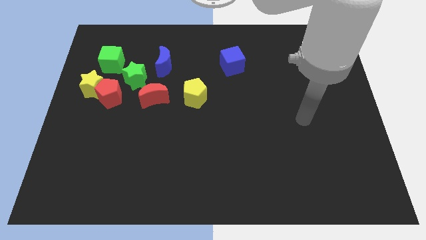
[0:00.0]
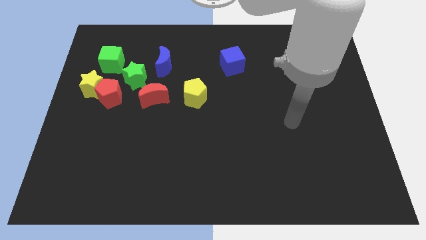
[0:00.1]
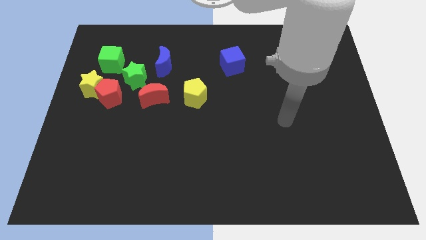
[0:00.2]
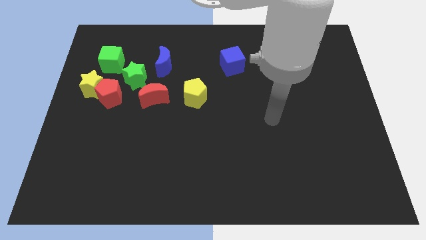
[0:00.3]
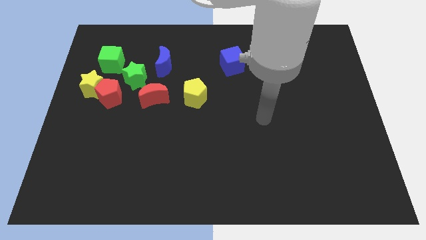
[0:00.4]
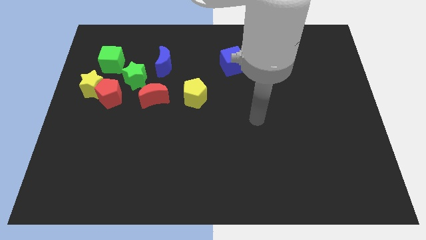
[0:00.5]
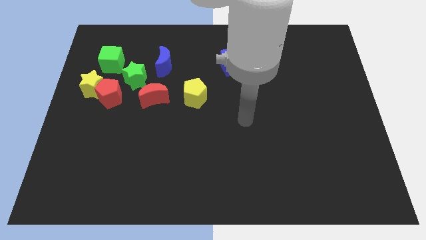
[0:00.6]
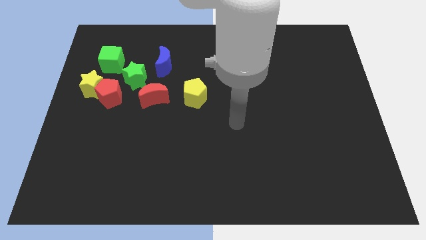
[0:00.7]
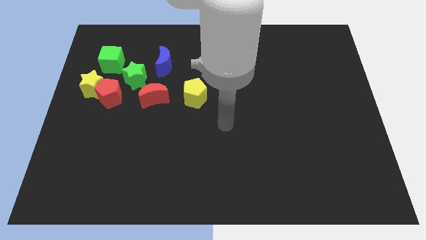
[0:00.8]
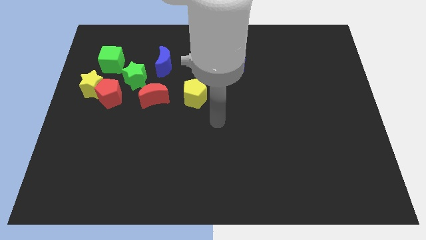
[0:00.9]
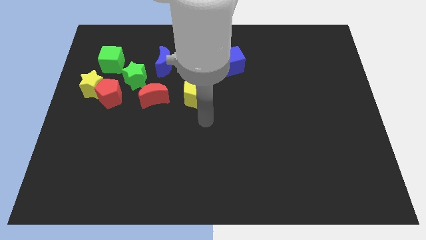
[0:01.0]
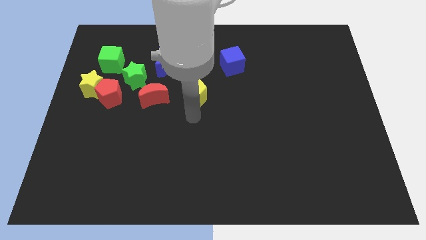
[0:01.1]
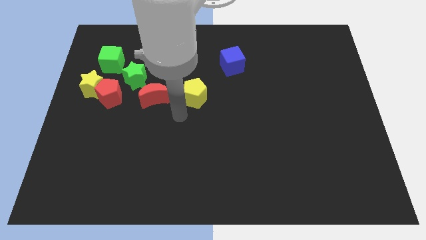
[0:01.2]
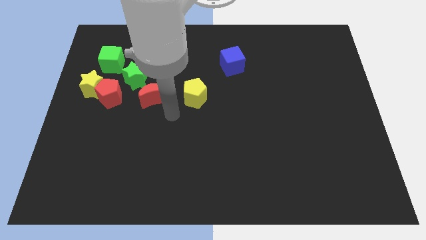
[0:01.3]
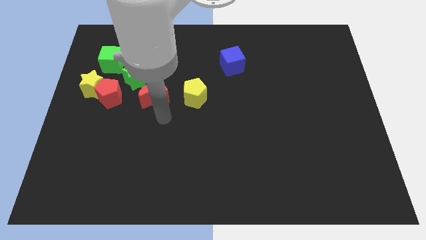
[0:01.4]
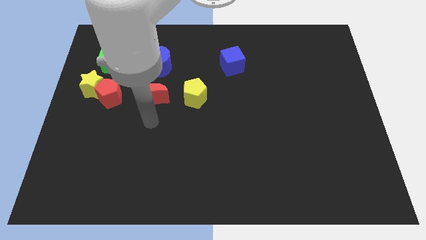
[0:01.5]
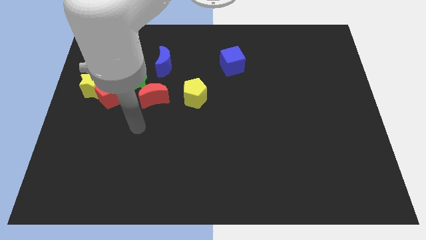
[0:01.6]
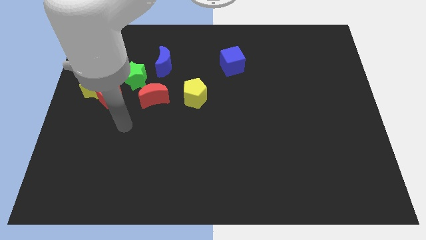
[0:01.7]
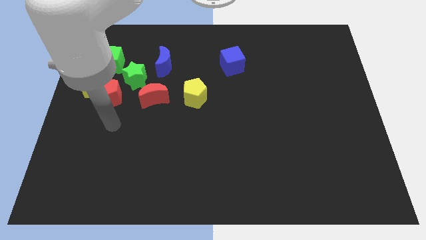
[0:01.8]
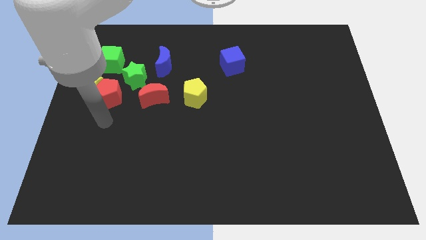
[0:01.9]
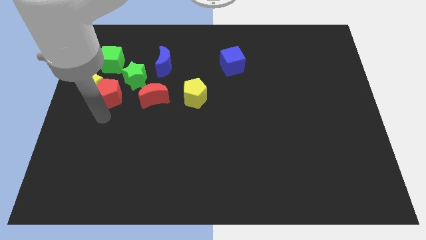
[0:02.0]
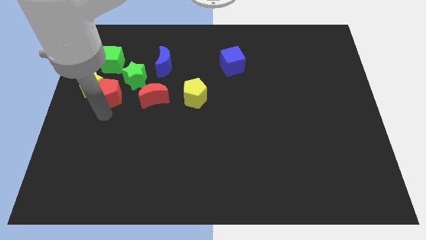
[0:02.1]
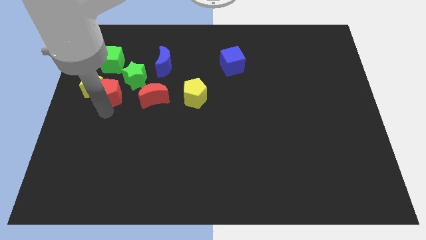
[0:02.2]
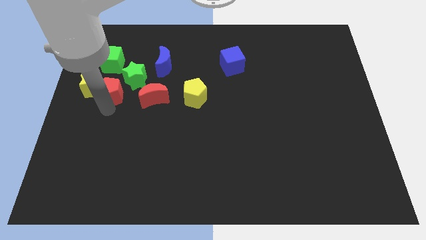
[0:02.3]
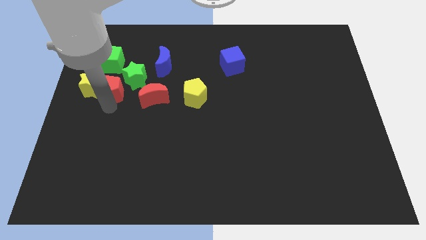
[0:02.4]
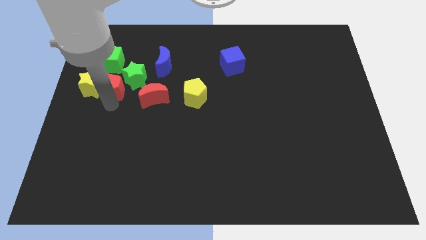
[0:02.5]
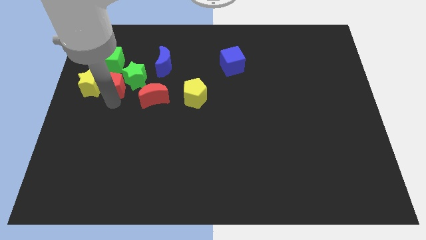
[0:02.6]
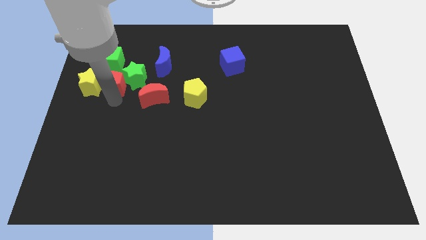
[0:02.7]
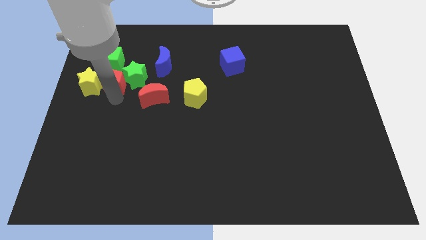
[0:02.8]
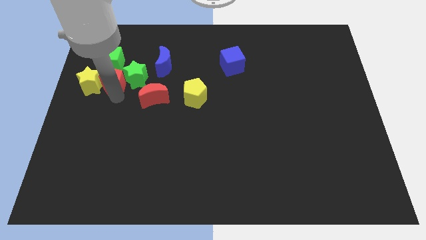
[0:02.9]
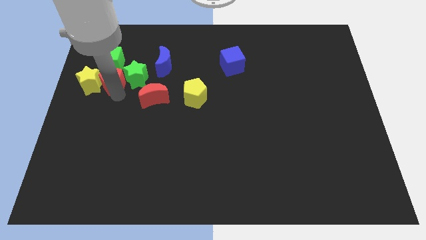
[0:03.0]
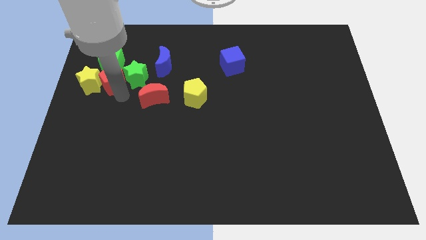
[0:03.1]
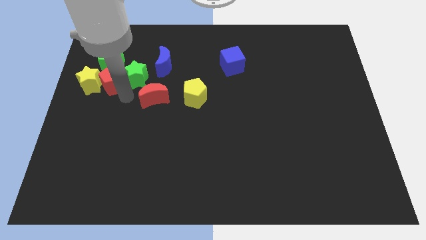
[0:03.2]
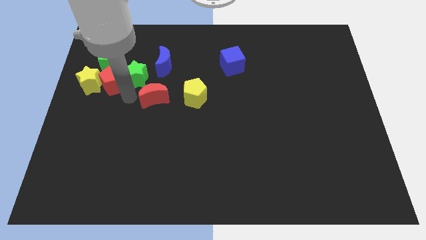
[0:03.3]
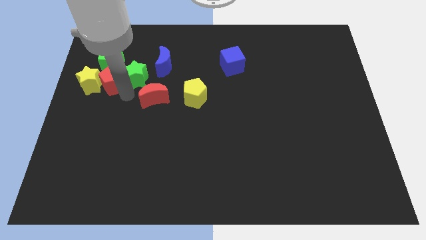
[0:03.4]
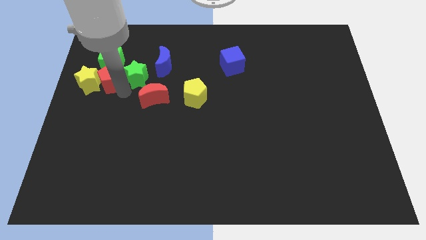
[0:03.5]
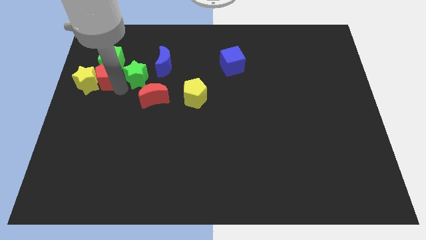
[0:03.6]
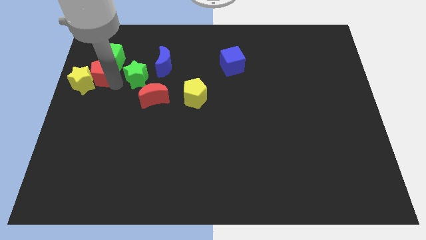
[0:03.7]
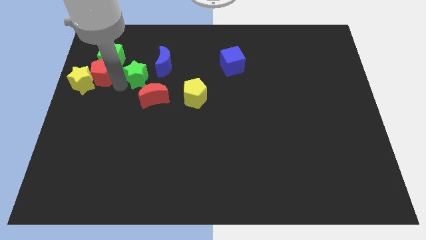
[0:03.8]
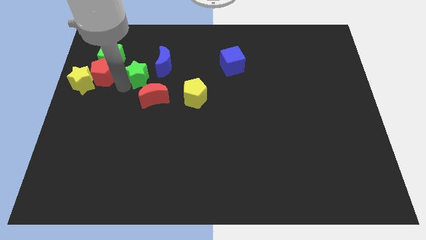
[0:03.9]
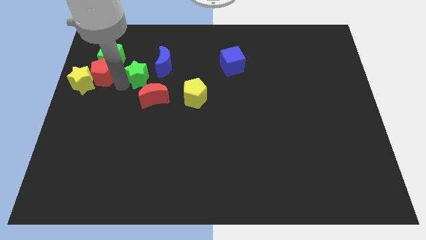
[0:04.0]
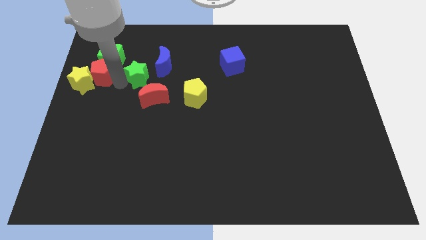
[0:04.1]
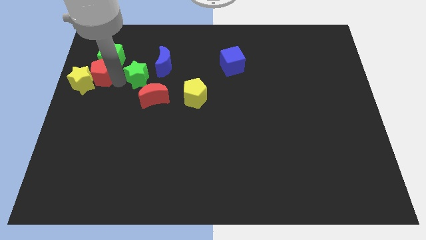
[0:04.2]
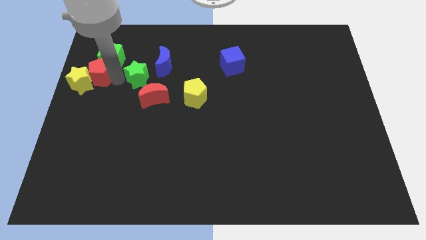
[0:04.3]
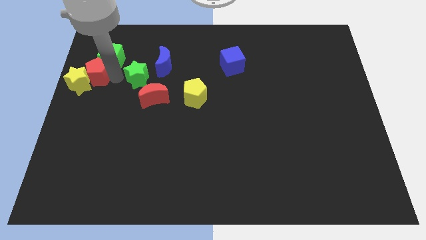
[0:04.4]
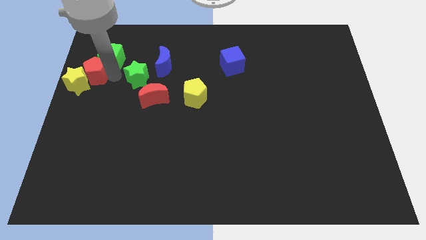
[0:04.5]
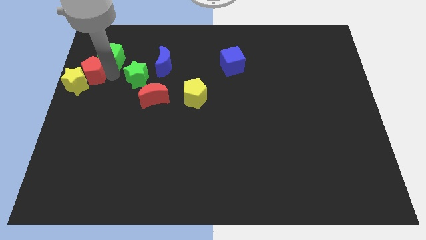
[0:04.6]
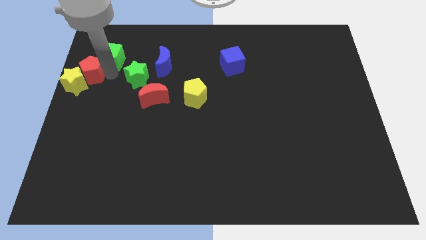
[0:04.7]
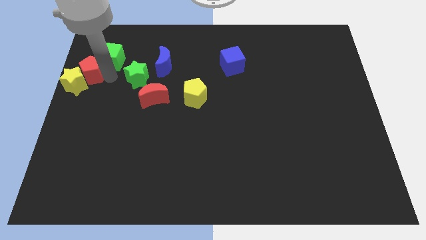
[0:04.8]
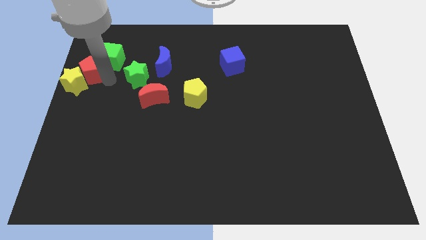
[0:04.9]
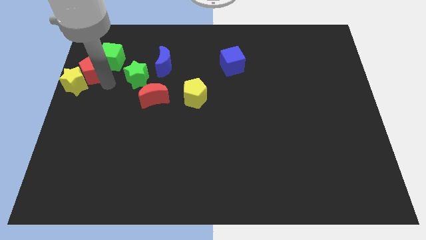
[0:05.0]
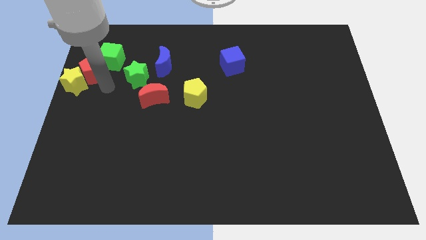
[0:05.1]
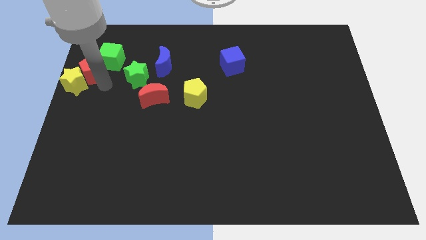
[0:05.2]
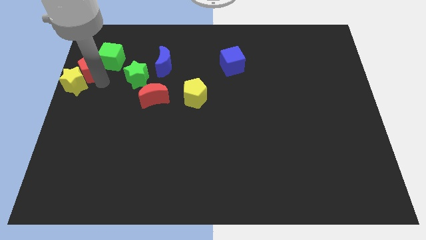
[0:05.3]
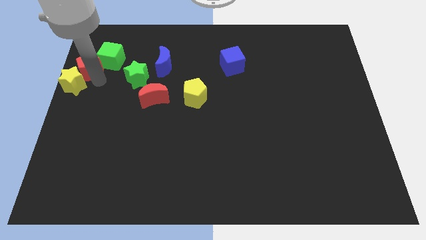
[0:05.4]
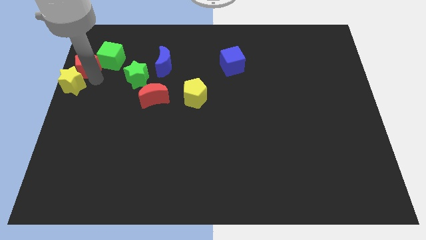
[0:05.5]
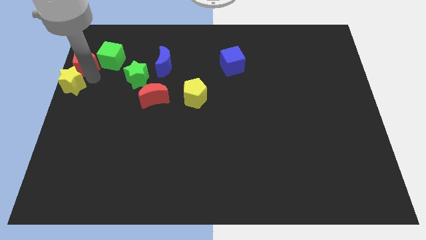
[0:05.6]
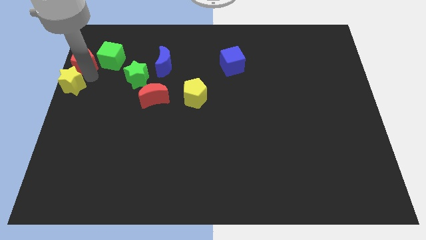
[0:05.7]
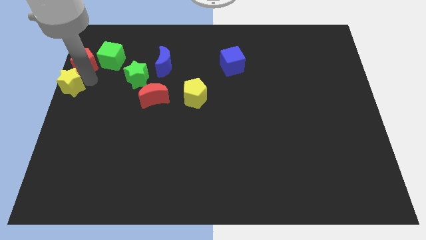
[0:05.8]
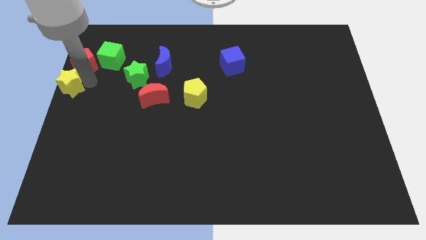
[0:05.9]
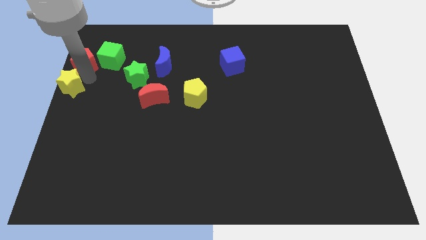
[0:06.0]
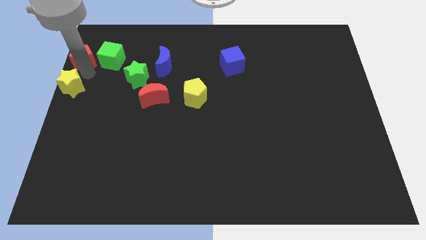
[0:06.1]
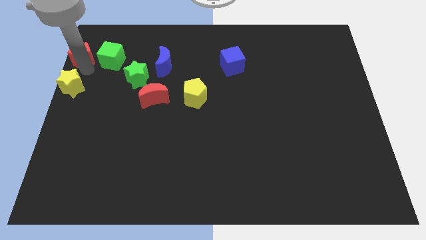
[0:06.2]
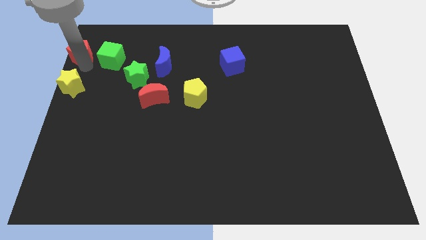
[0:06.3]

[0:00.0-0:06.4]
put the red pentagon to the upper left corner

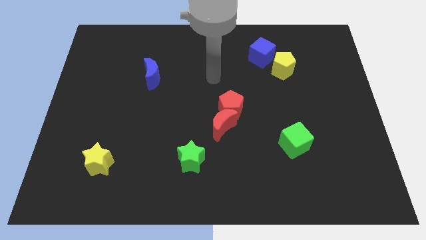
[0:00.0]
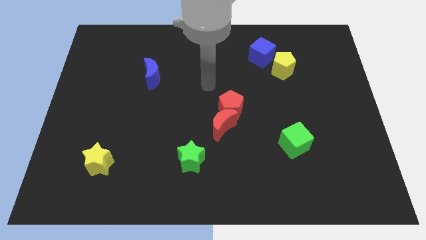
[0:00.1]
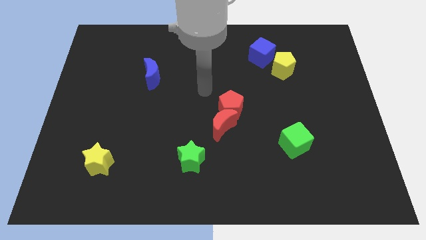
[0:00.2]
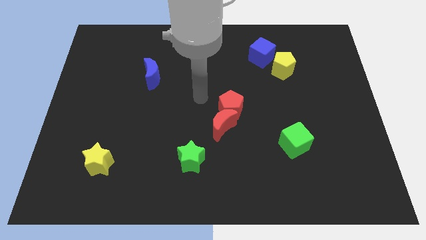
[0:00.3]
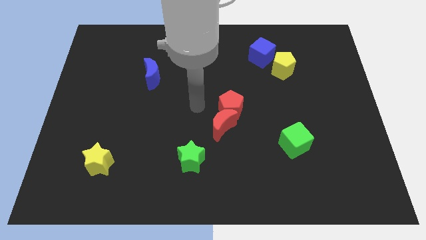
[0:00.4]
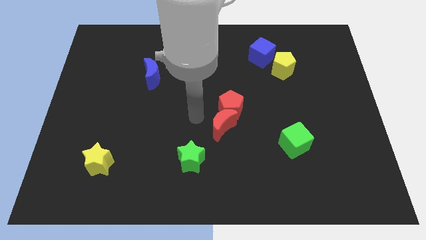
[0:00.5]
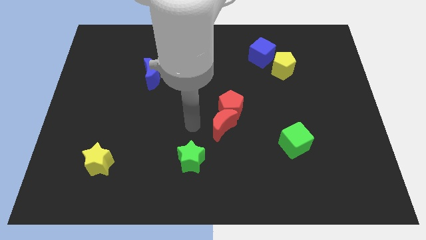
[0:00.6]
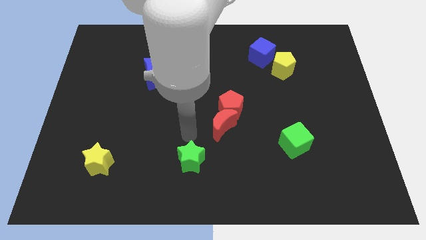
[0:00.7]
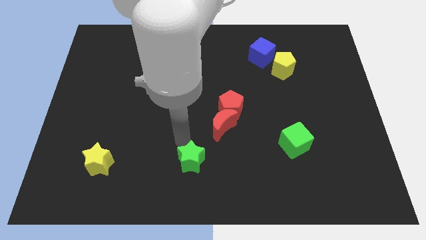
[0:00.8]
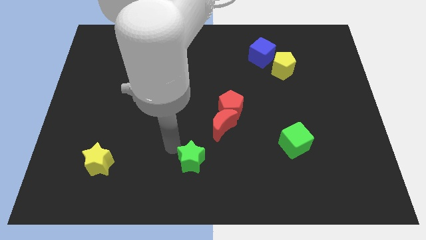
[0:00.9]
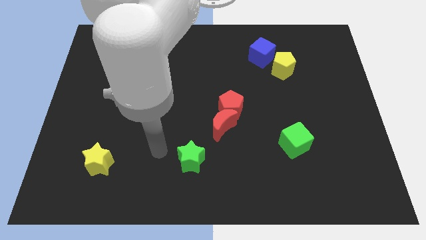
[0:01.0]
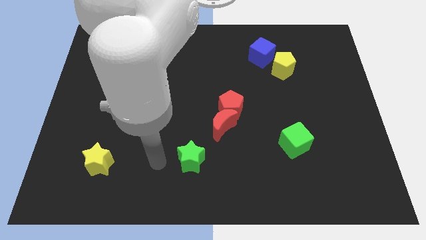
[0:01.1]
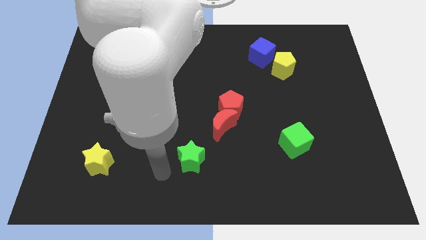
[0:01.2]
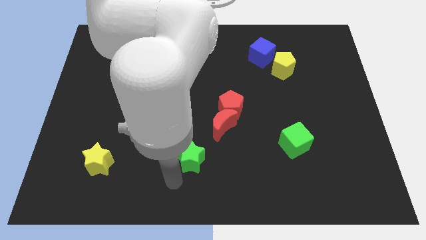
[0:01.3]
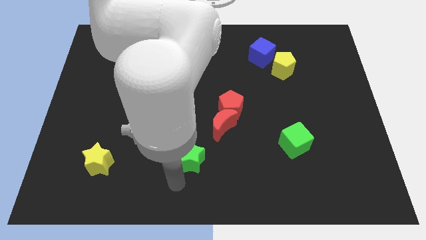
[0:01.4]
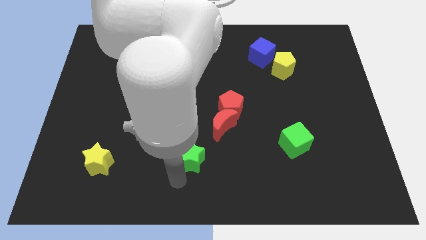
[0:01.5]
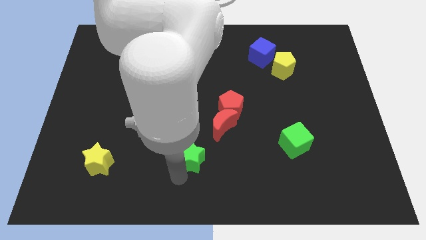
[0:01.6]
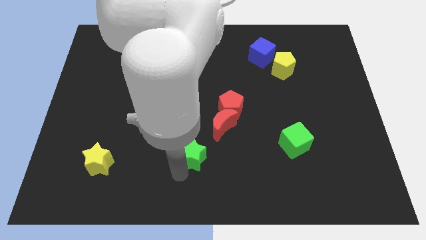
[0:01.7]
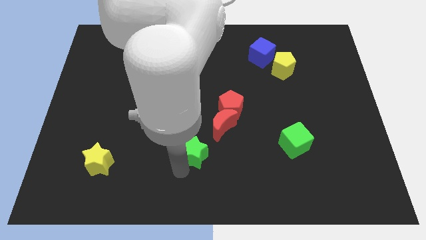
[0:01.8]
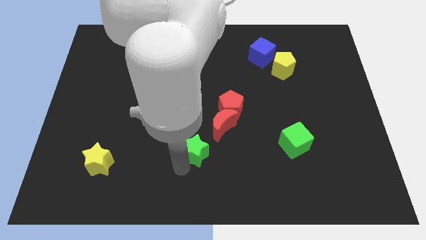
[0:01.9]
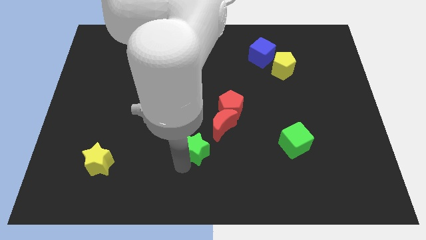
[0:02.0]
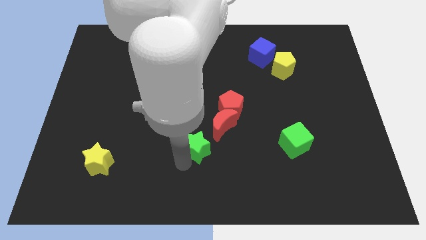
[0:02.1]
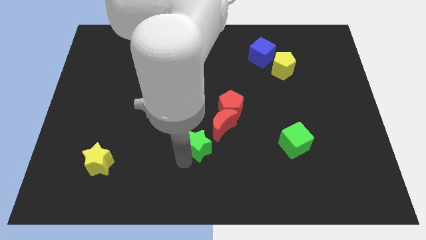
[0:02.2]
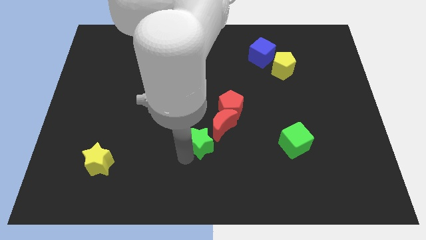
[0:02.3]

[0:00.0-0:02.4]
put the green star to the center
